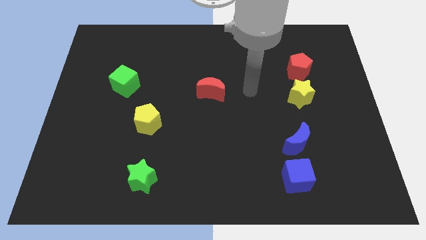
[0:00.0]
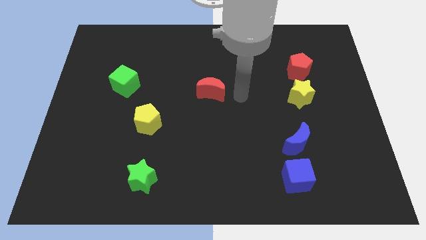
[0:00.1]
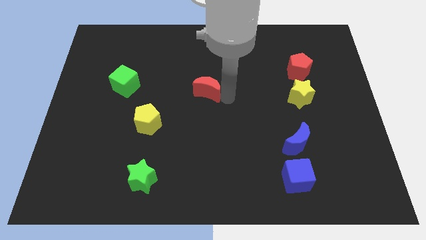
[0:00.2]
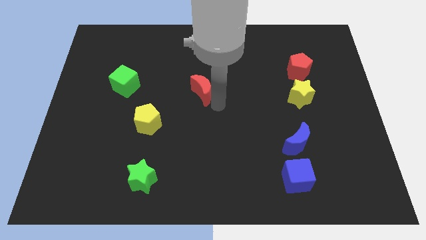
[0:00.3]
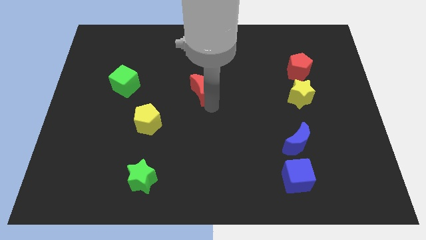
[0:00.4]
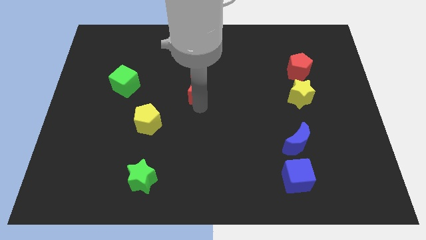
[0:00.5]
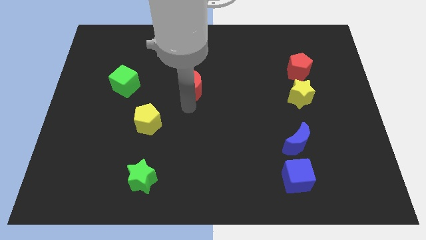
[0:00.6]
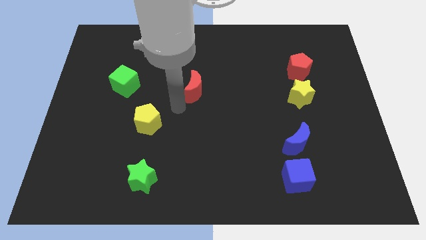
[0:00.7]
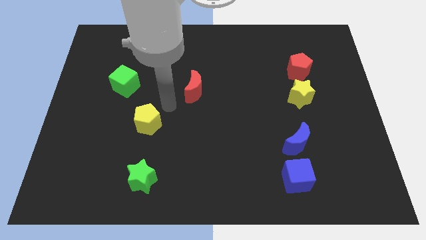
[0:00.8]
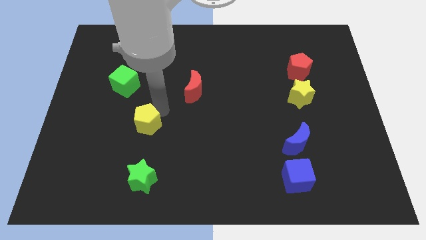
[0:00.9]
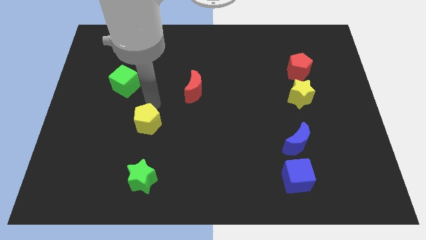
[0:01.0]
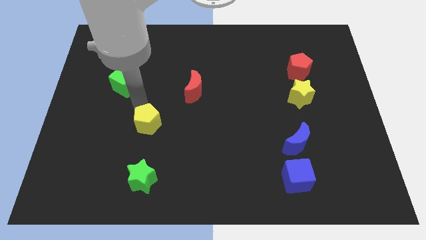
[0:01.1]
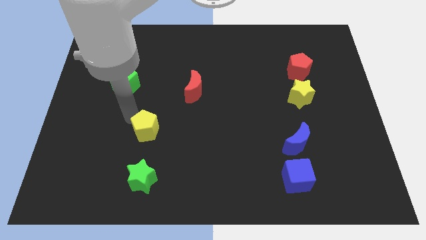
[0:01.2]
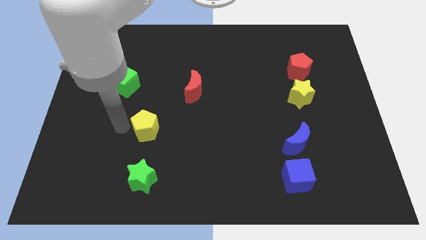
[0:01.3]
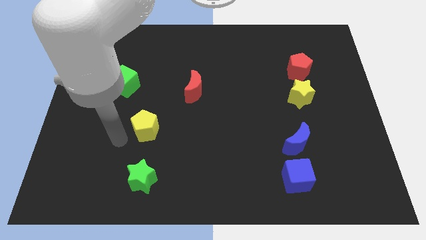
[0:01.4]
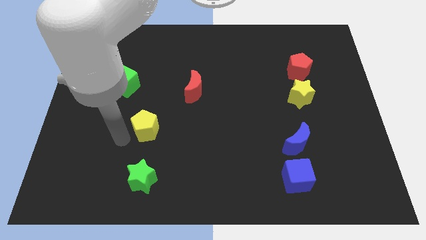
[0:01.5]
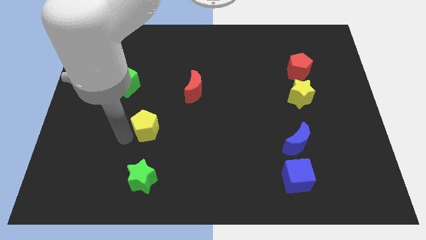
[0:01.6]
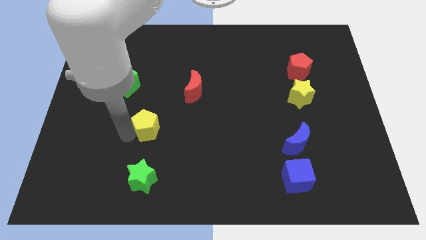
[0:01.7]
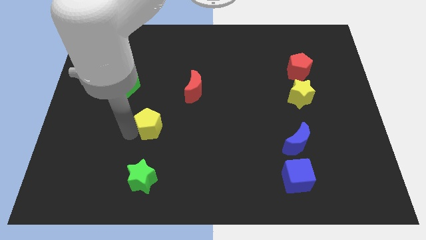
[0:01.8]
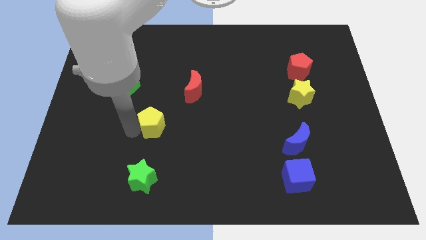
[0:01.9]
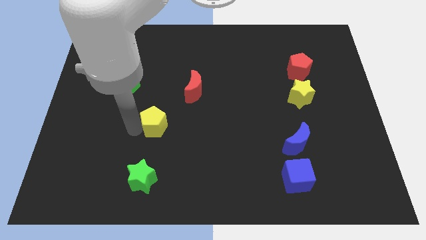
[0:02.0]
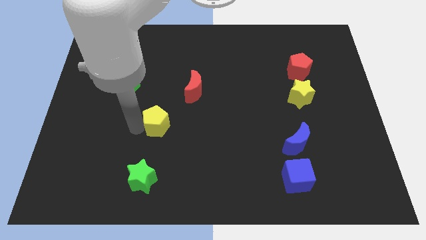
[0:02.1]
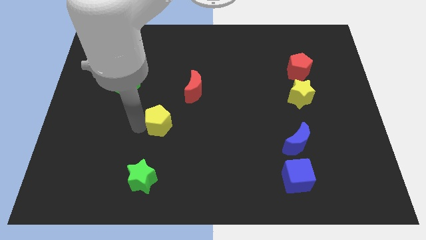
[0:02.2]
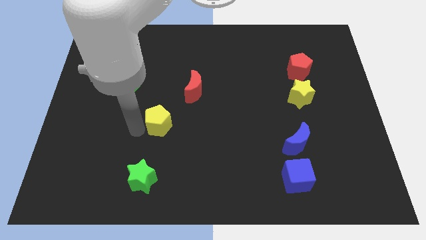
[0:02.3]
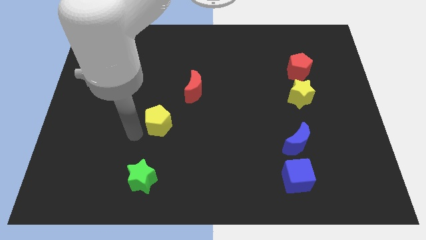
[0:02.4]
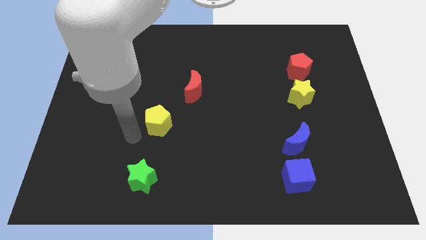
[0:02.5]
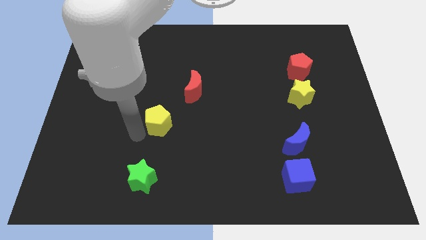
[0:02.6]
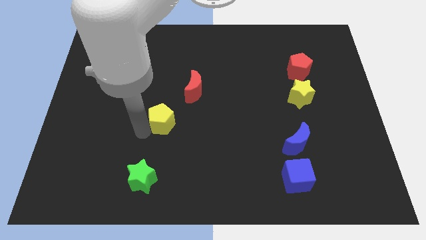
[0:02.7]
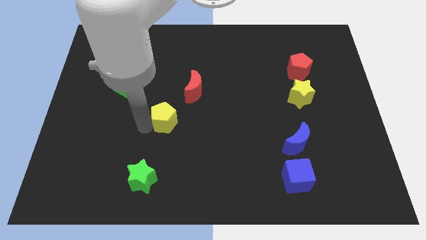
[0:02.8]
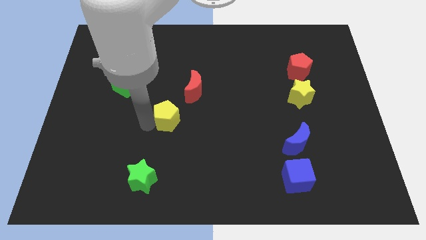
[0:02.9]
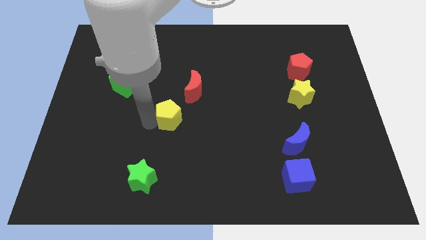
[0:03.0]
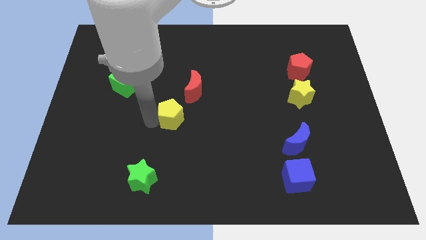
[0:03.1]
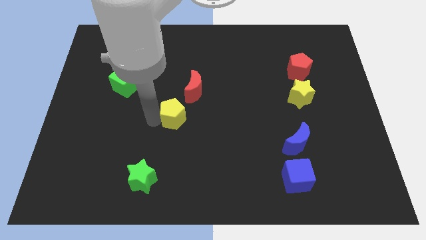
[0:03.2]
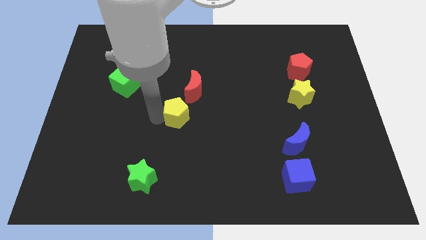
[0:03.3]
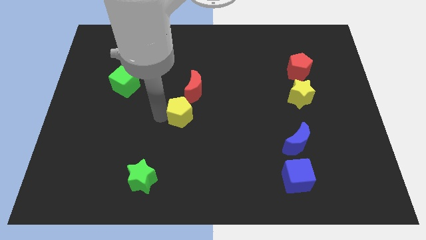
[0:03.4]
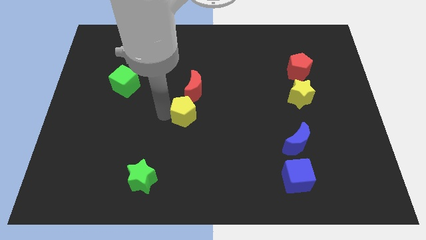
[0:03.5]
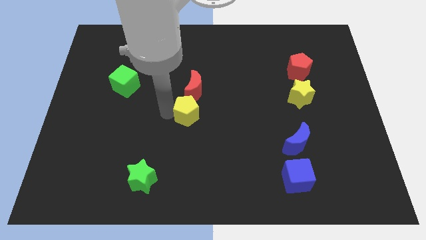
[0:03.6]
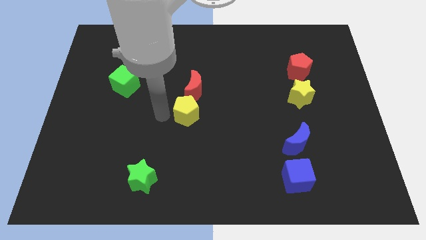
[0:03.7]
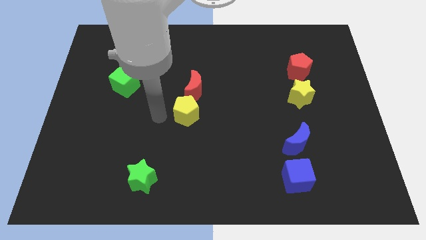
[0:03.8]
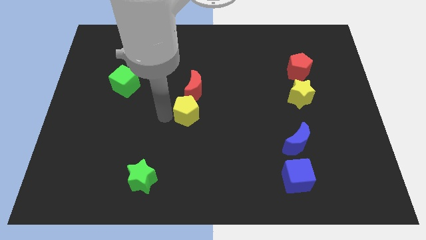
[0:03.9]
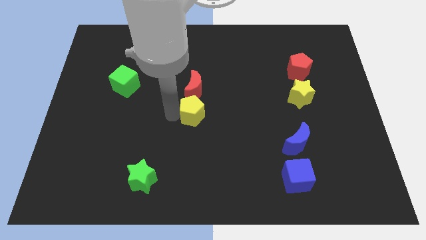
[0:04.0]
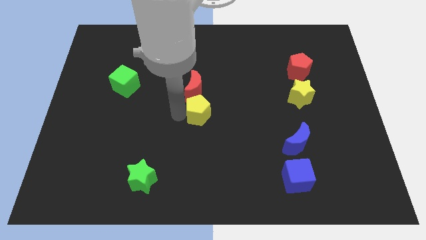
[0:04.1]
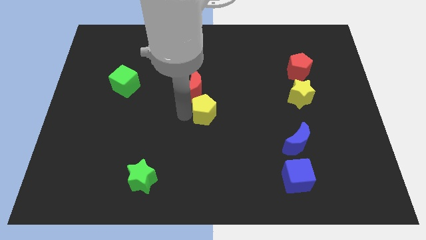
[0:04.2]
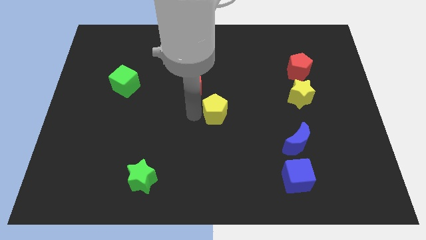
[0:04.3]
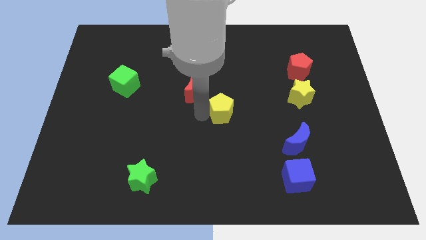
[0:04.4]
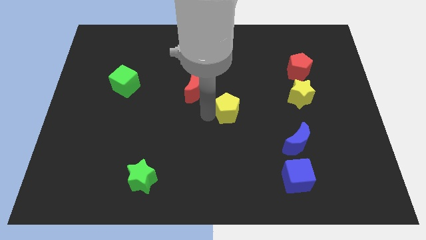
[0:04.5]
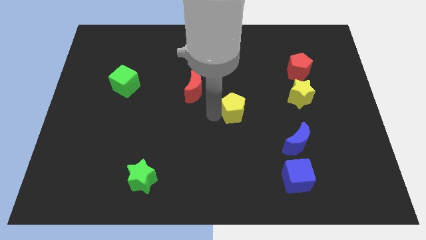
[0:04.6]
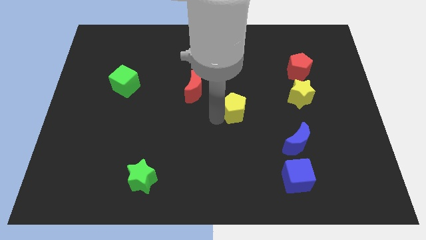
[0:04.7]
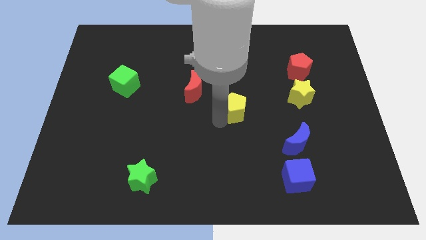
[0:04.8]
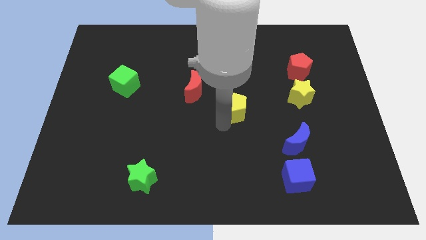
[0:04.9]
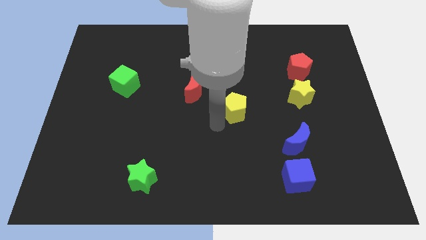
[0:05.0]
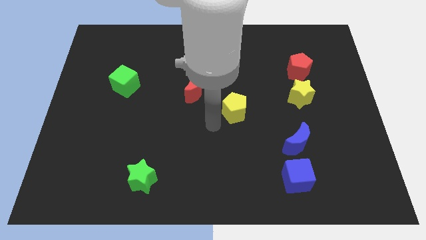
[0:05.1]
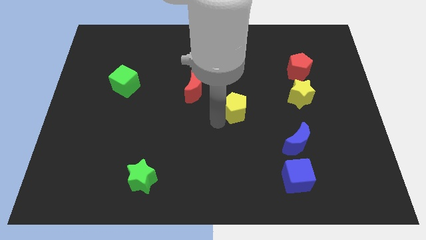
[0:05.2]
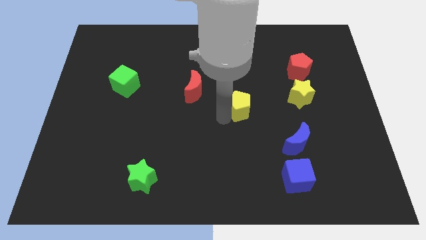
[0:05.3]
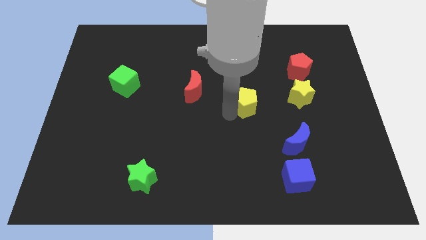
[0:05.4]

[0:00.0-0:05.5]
move the yellow pentagon to the left of the yellow star

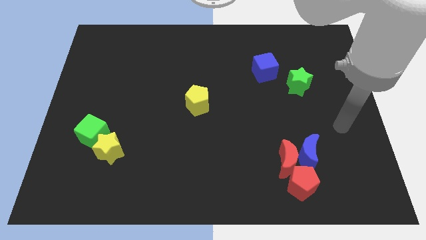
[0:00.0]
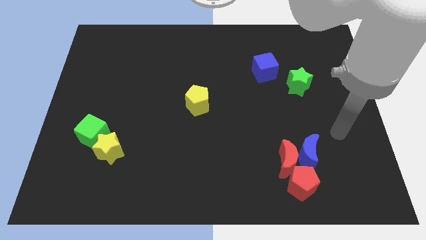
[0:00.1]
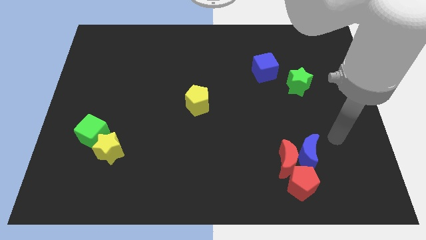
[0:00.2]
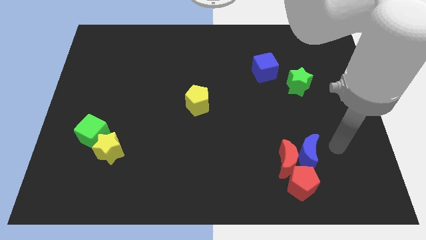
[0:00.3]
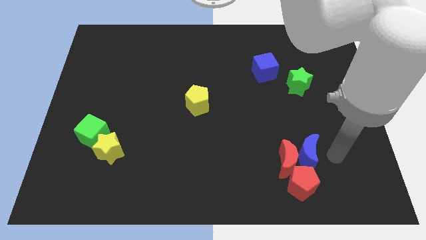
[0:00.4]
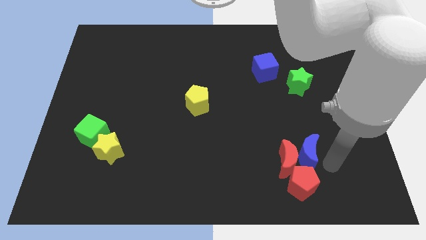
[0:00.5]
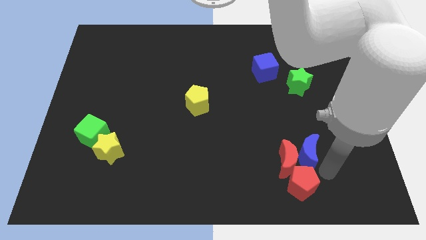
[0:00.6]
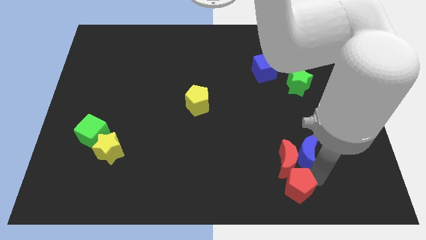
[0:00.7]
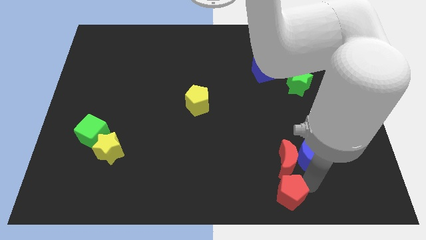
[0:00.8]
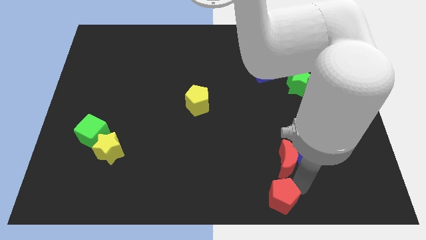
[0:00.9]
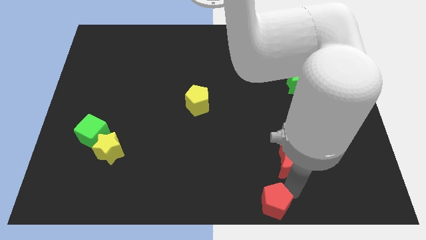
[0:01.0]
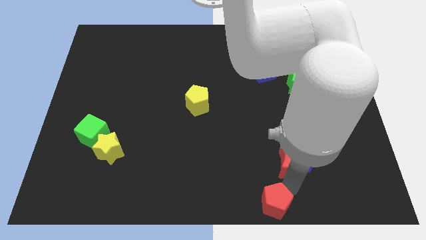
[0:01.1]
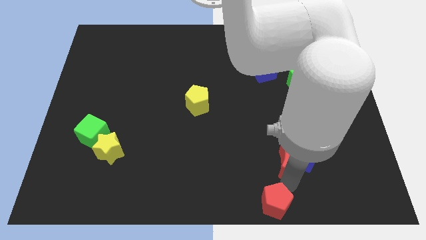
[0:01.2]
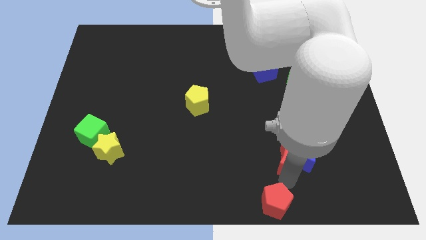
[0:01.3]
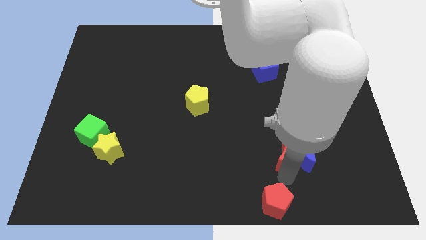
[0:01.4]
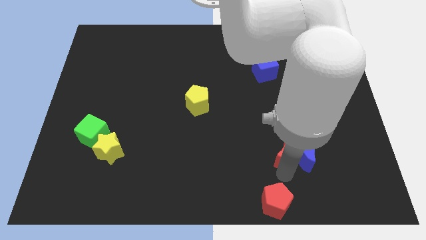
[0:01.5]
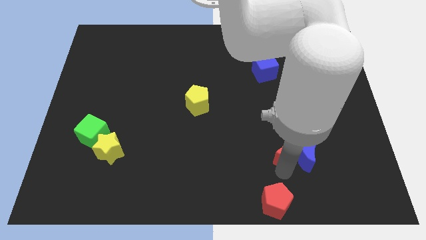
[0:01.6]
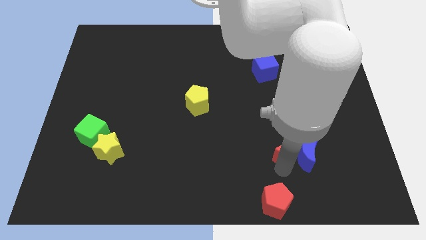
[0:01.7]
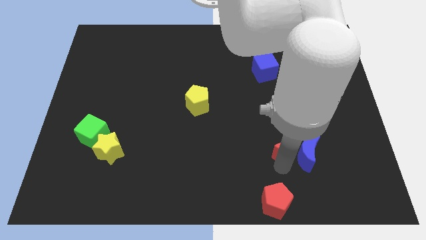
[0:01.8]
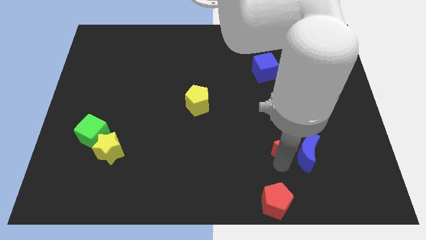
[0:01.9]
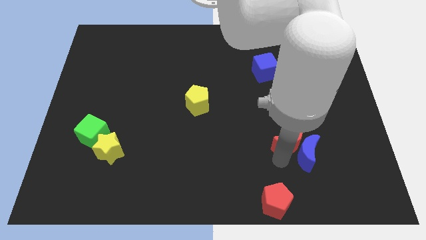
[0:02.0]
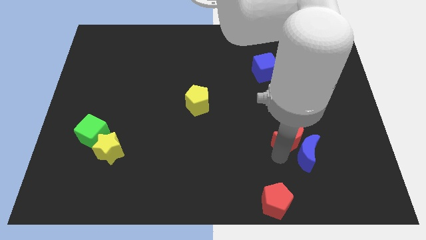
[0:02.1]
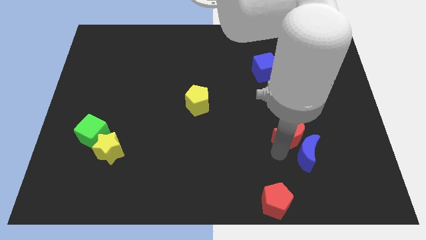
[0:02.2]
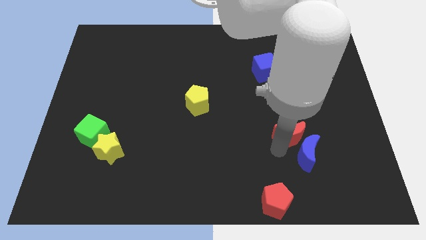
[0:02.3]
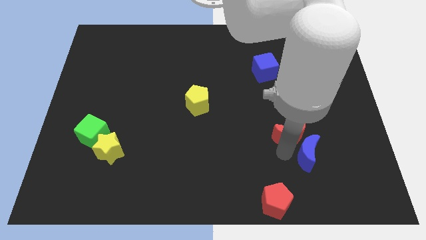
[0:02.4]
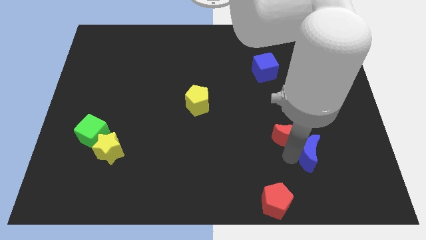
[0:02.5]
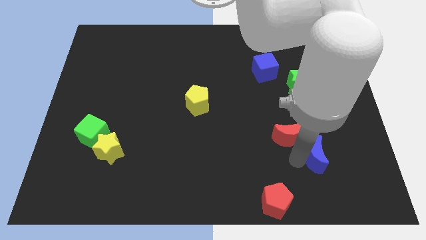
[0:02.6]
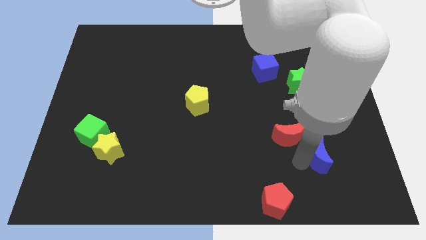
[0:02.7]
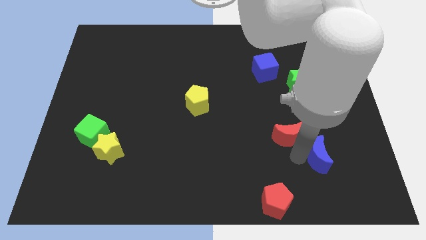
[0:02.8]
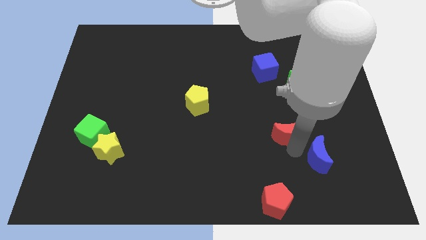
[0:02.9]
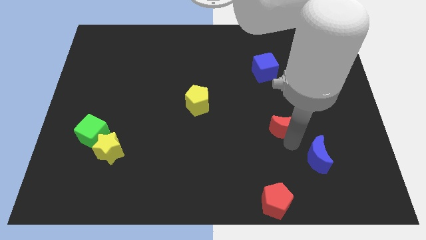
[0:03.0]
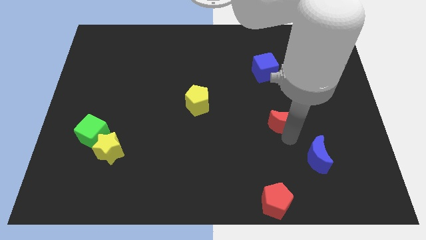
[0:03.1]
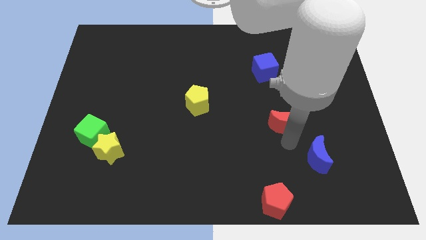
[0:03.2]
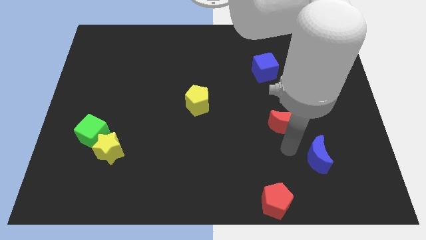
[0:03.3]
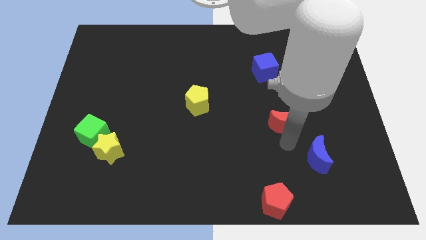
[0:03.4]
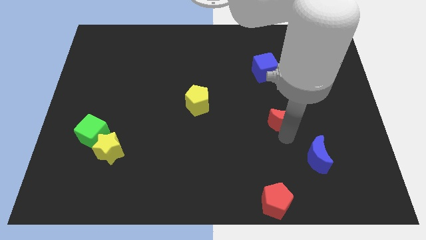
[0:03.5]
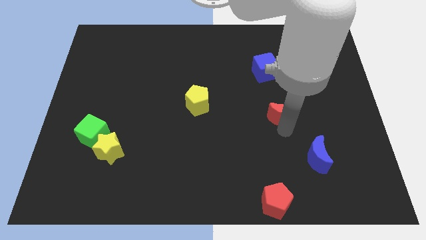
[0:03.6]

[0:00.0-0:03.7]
move the red moon diagonally down and to the left of the green star
